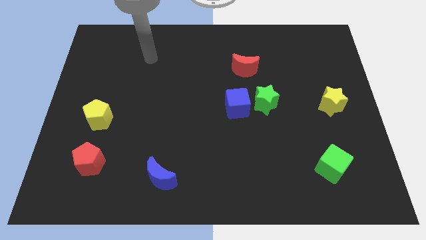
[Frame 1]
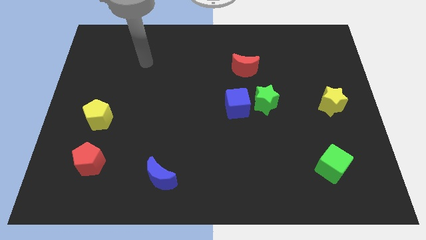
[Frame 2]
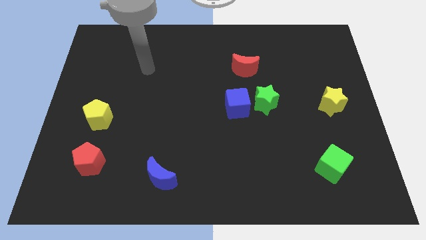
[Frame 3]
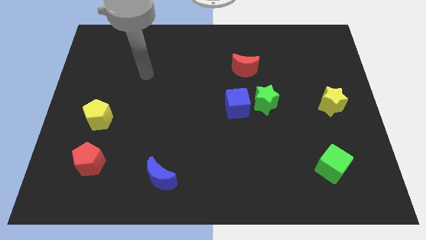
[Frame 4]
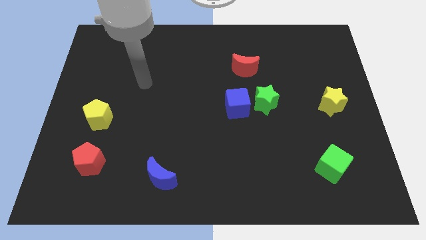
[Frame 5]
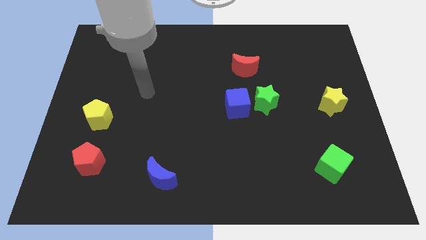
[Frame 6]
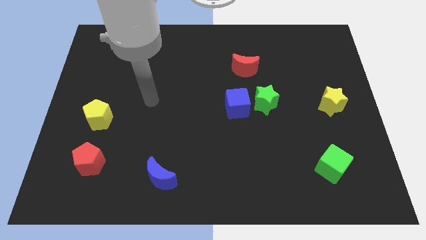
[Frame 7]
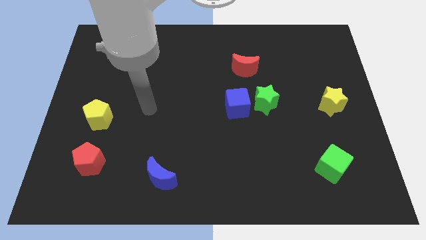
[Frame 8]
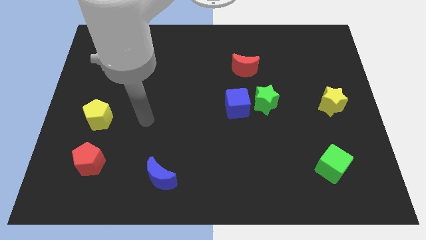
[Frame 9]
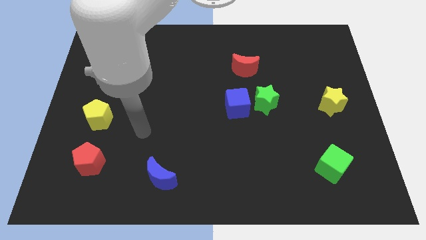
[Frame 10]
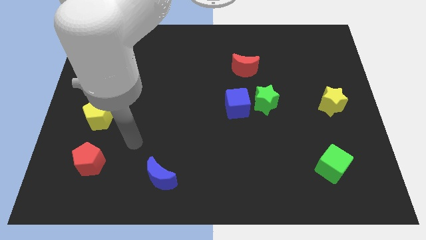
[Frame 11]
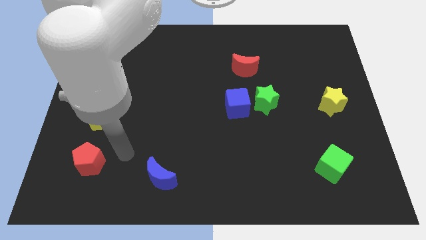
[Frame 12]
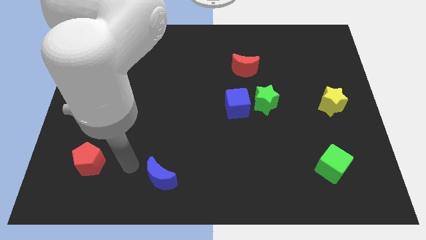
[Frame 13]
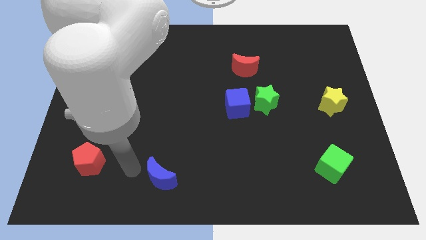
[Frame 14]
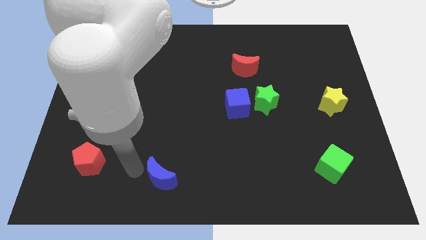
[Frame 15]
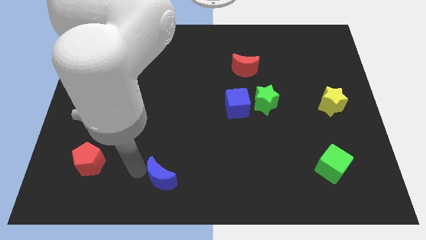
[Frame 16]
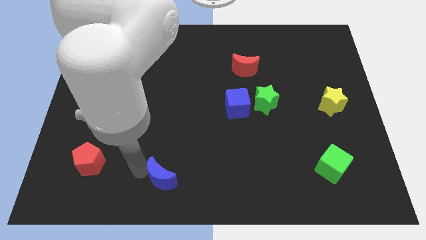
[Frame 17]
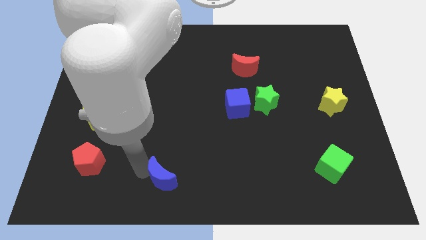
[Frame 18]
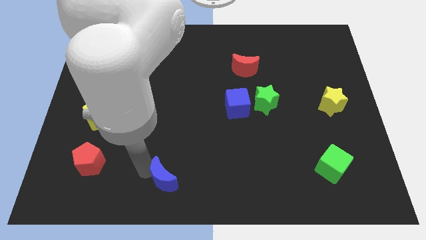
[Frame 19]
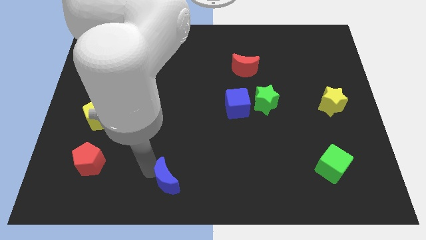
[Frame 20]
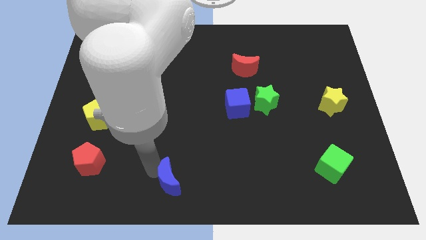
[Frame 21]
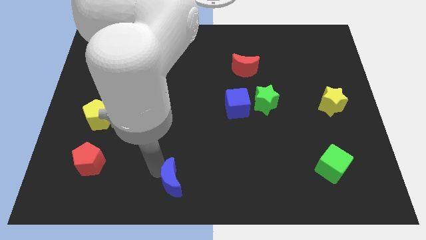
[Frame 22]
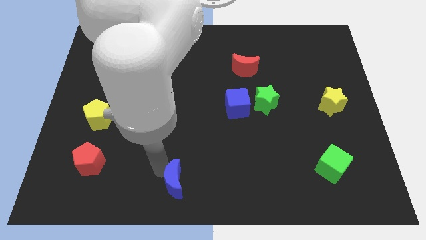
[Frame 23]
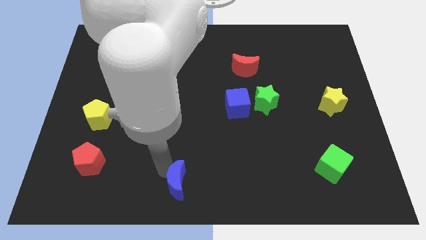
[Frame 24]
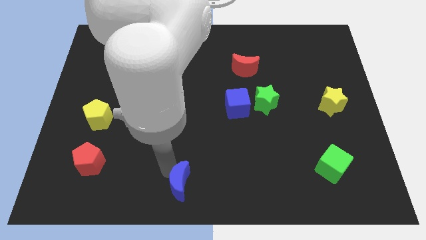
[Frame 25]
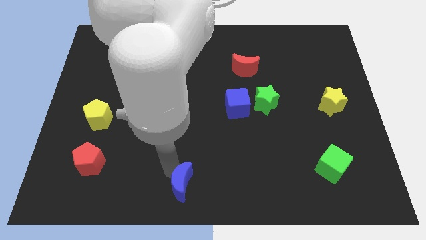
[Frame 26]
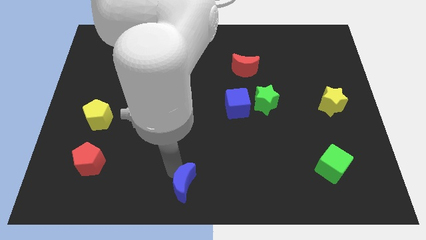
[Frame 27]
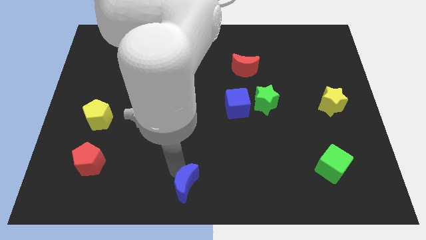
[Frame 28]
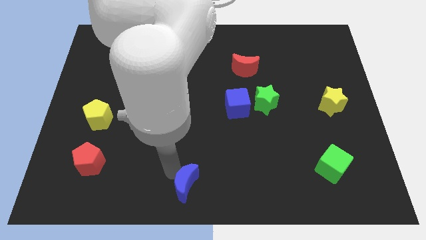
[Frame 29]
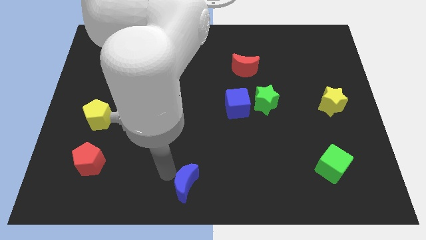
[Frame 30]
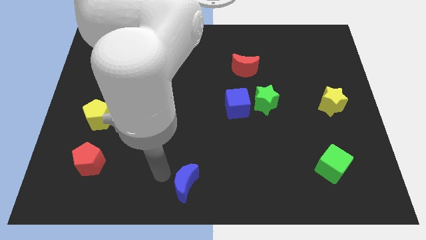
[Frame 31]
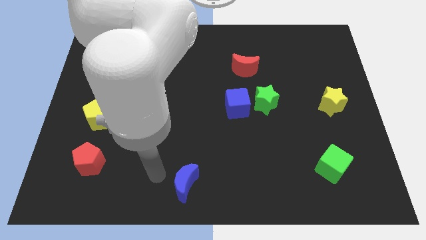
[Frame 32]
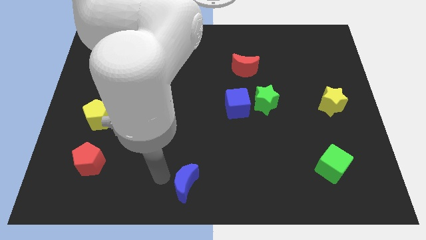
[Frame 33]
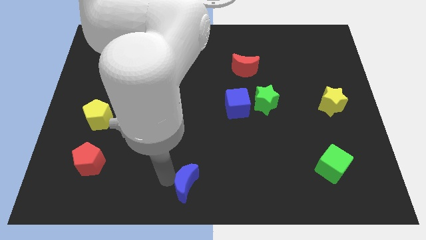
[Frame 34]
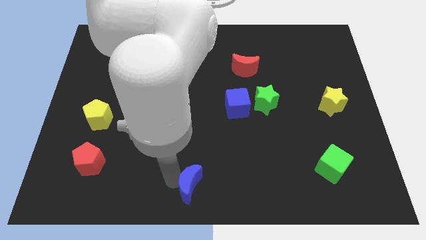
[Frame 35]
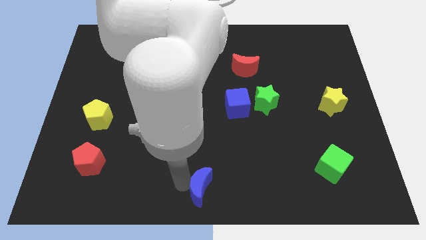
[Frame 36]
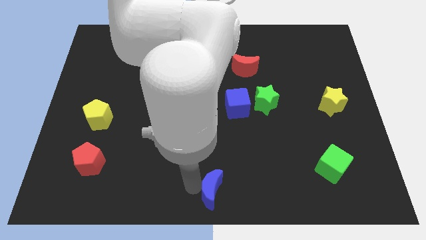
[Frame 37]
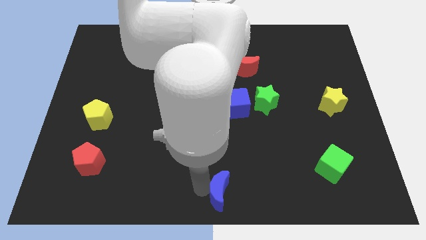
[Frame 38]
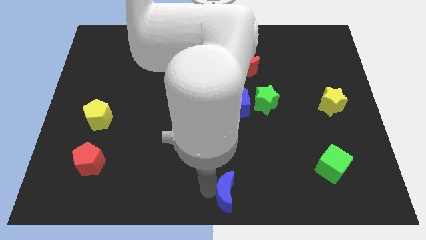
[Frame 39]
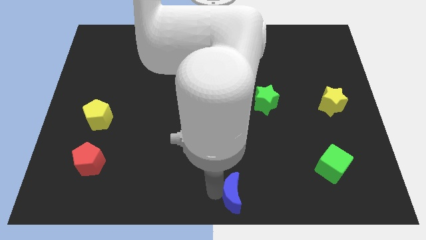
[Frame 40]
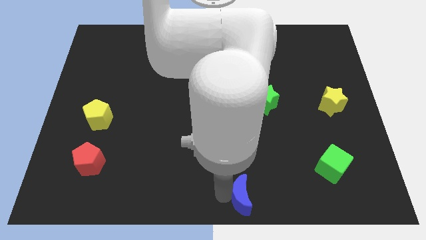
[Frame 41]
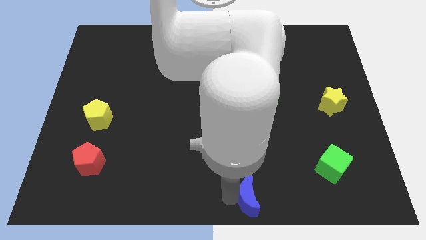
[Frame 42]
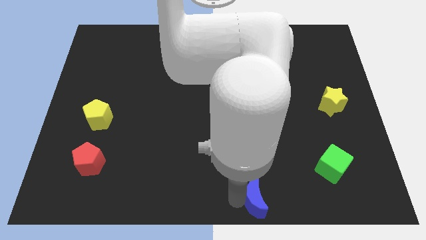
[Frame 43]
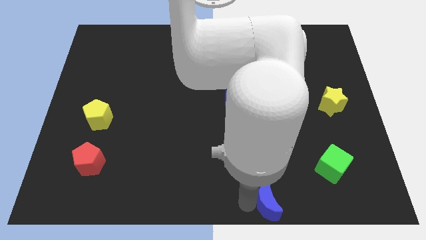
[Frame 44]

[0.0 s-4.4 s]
move the blue moon right

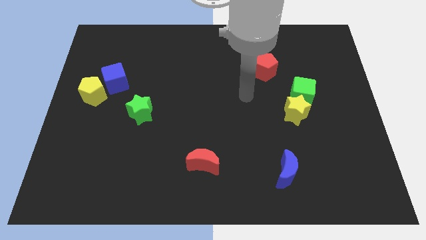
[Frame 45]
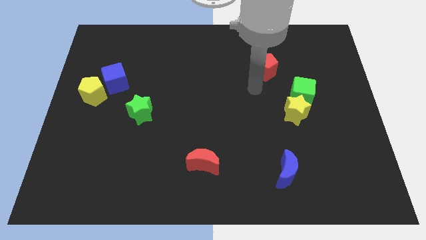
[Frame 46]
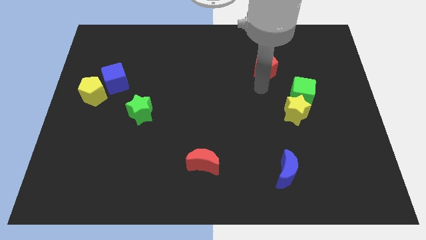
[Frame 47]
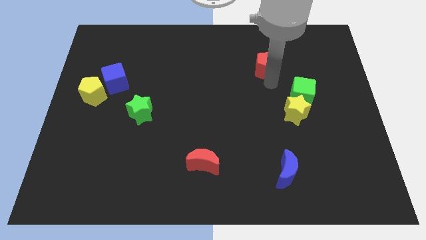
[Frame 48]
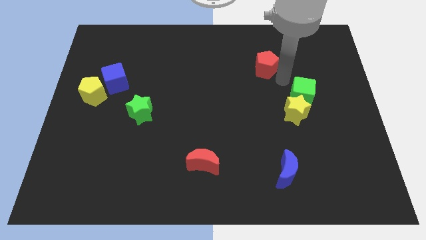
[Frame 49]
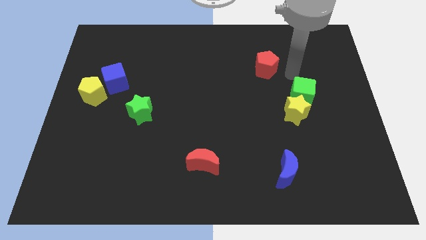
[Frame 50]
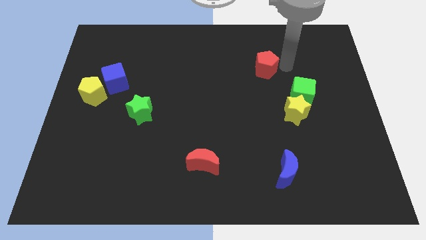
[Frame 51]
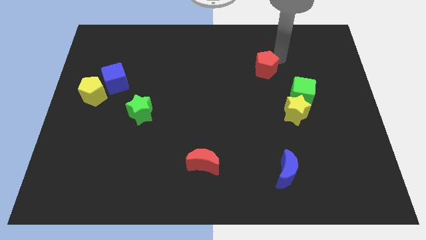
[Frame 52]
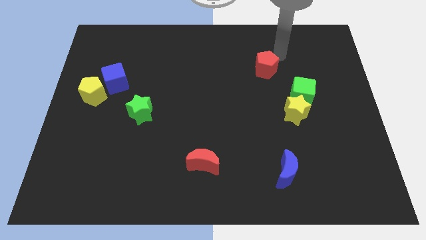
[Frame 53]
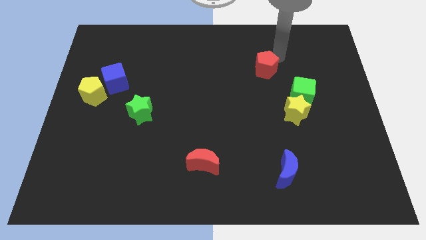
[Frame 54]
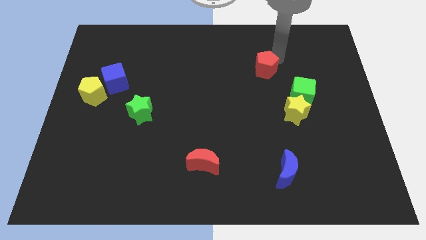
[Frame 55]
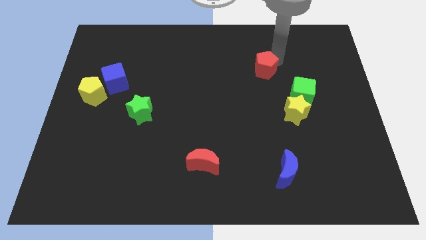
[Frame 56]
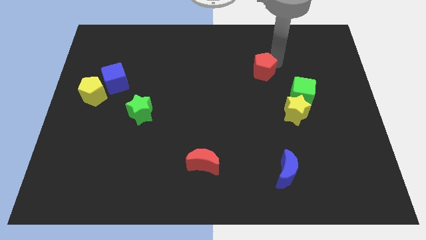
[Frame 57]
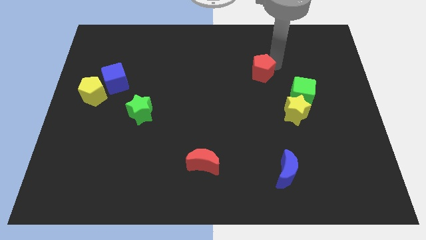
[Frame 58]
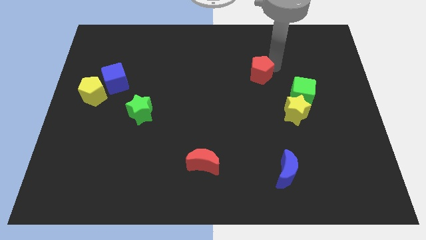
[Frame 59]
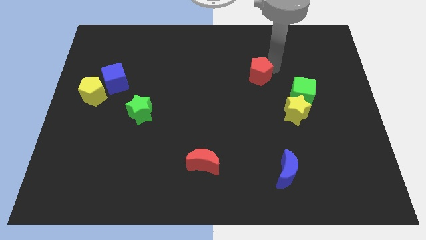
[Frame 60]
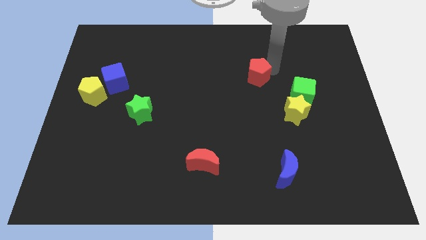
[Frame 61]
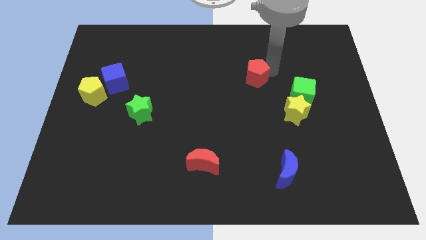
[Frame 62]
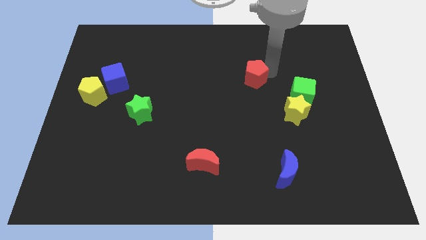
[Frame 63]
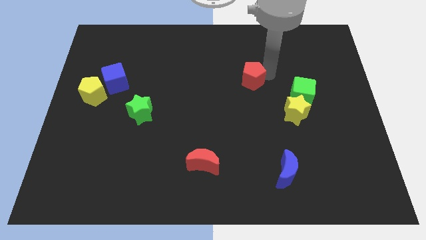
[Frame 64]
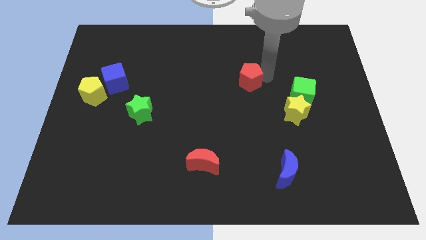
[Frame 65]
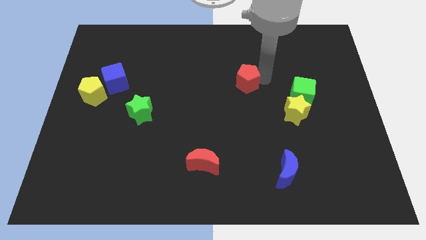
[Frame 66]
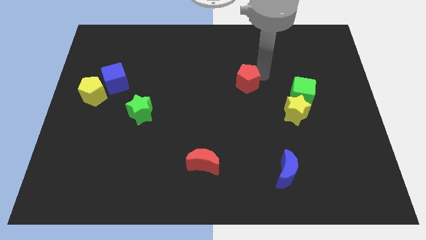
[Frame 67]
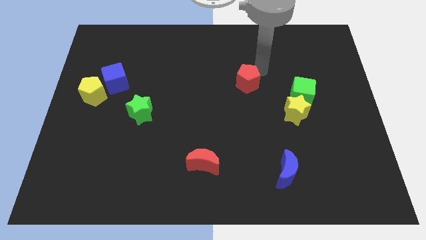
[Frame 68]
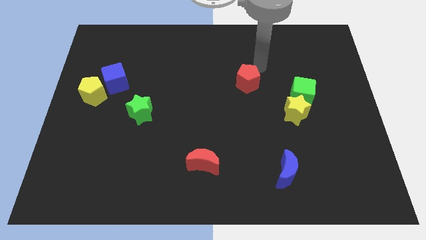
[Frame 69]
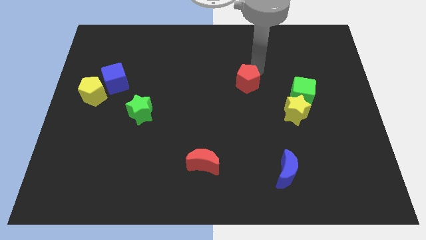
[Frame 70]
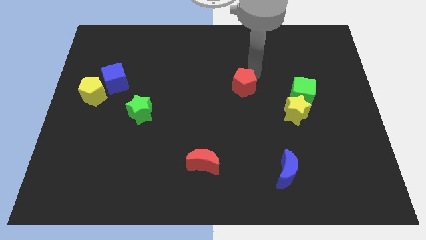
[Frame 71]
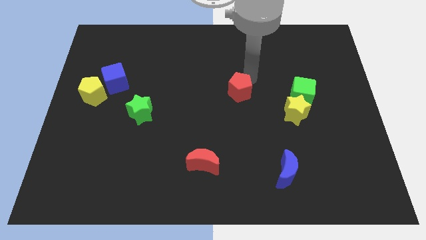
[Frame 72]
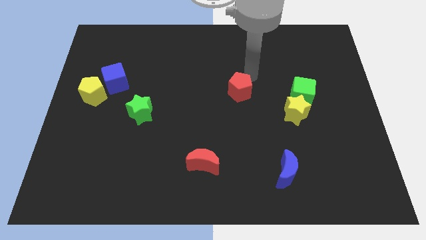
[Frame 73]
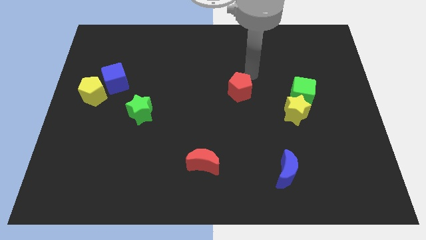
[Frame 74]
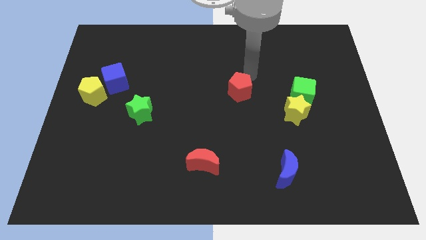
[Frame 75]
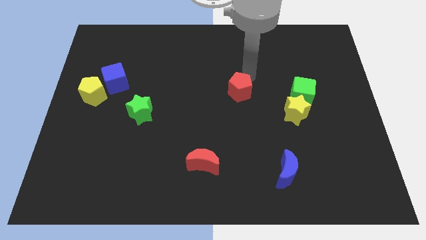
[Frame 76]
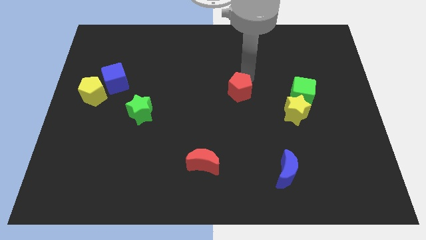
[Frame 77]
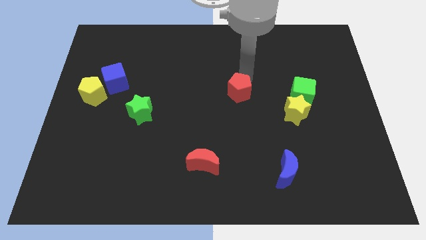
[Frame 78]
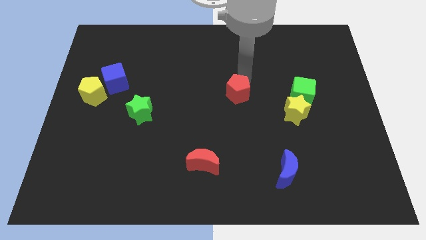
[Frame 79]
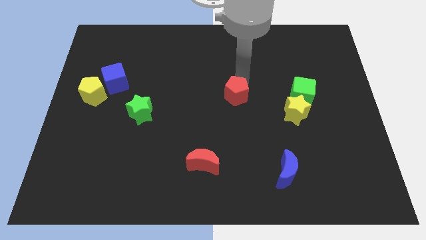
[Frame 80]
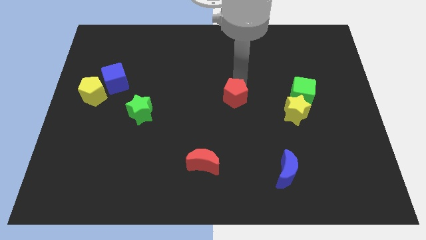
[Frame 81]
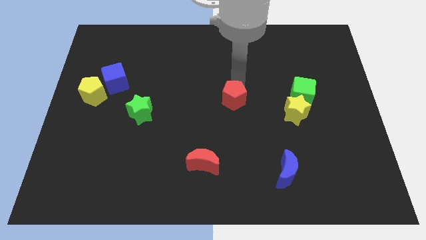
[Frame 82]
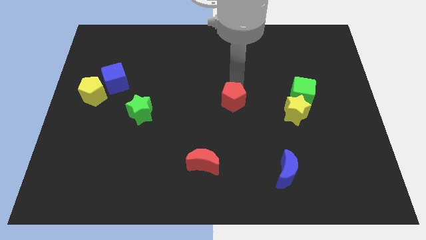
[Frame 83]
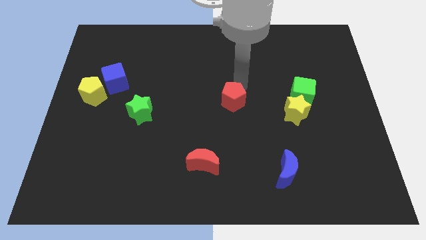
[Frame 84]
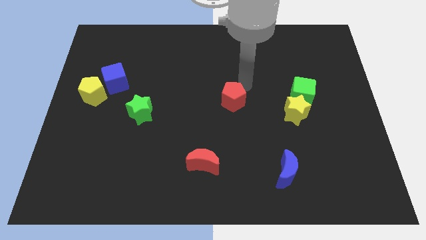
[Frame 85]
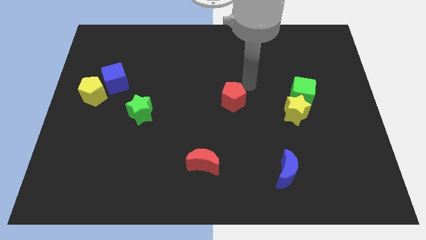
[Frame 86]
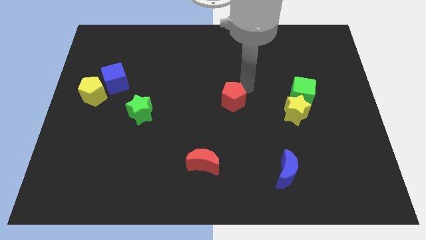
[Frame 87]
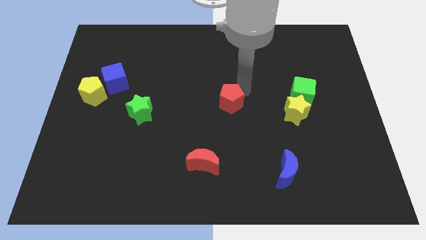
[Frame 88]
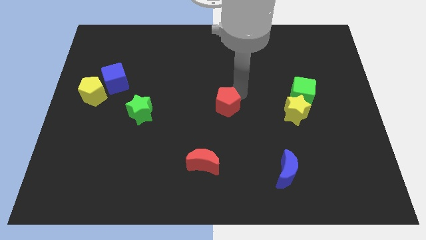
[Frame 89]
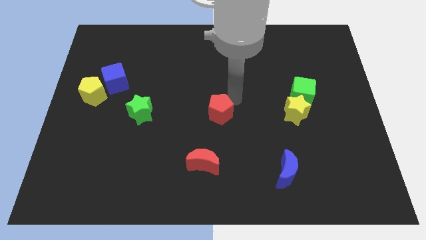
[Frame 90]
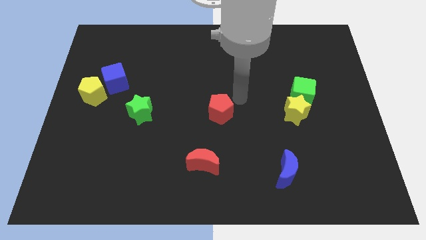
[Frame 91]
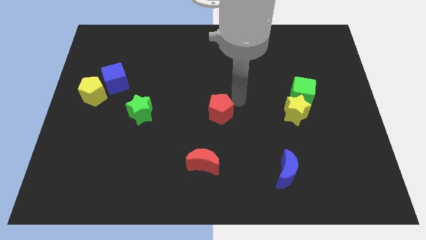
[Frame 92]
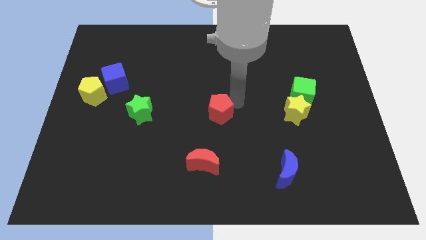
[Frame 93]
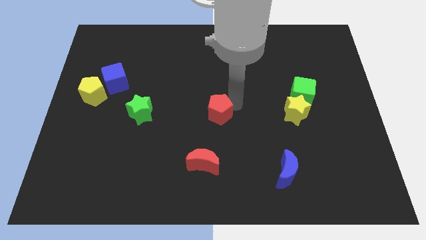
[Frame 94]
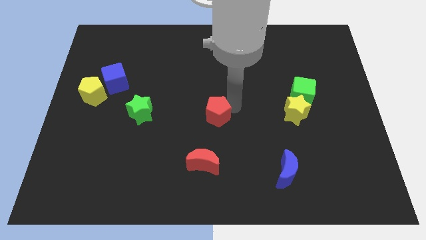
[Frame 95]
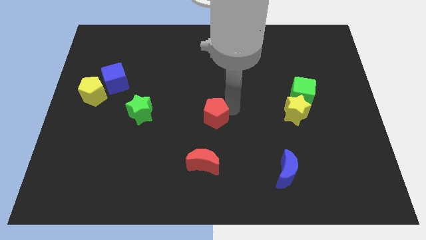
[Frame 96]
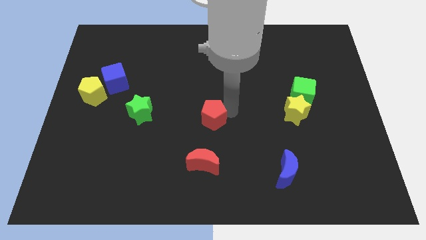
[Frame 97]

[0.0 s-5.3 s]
push the red pentagon down and to the left
